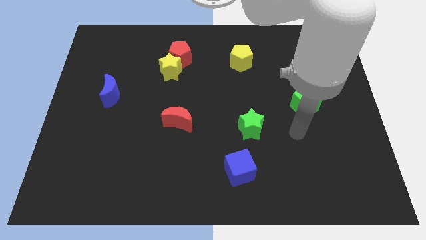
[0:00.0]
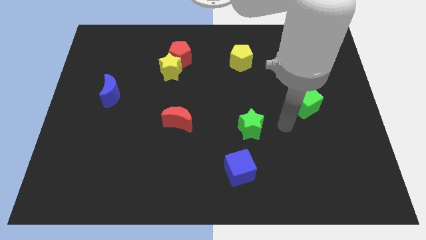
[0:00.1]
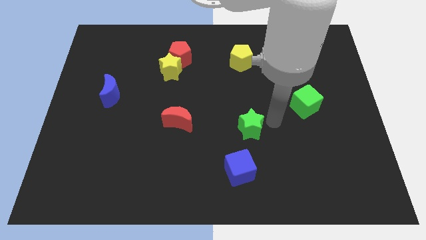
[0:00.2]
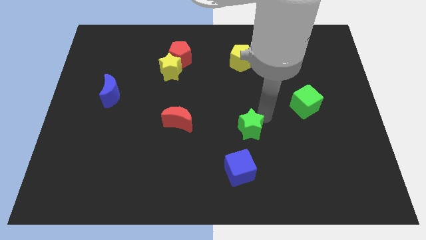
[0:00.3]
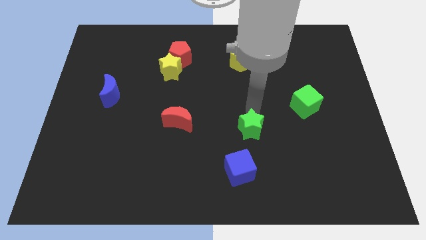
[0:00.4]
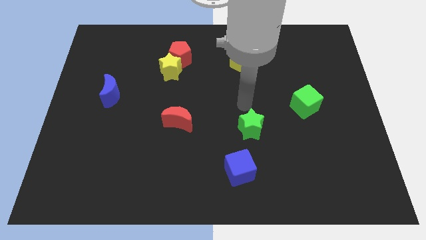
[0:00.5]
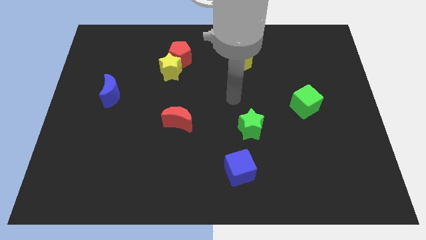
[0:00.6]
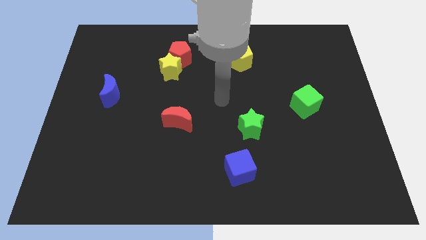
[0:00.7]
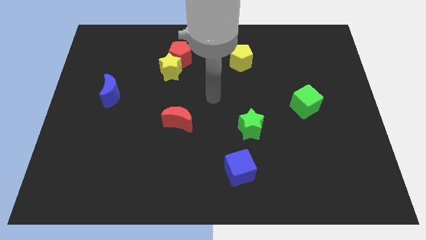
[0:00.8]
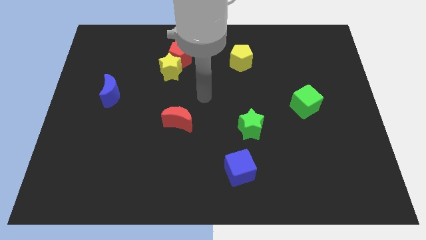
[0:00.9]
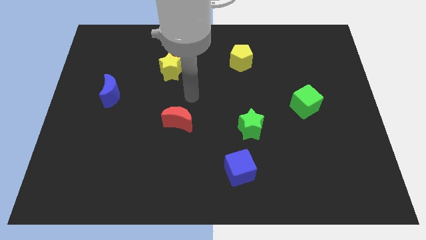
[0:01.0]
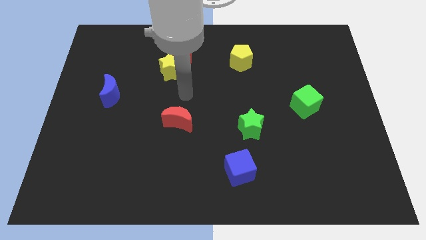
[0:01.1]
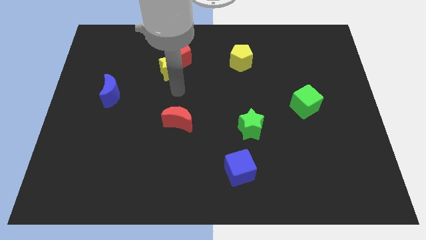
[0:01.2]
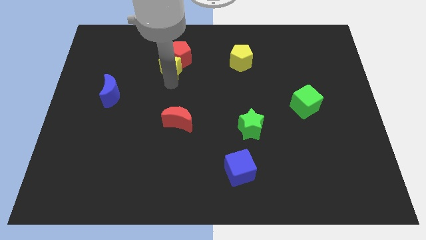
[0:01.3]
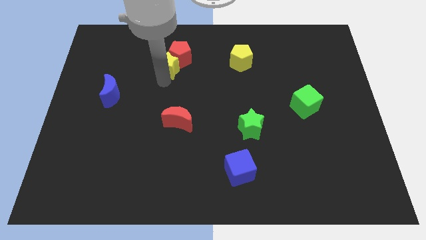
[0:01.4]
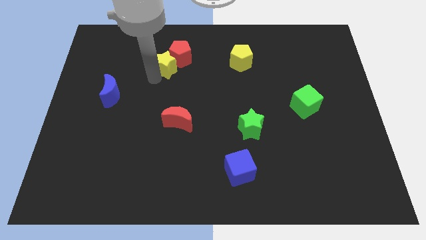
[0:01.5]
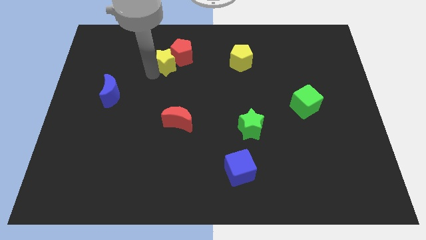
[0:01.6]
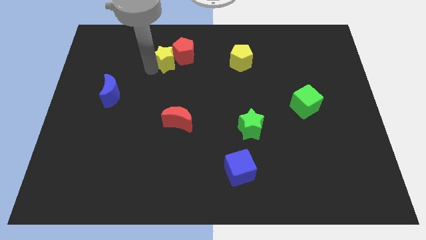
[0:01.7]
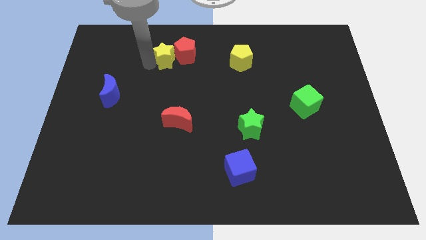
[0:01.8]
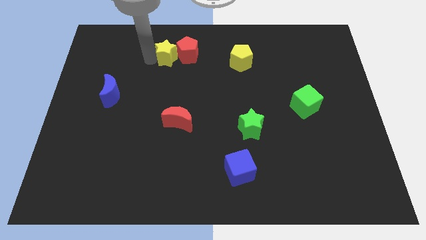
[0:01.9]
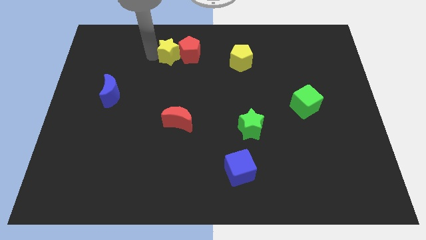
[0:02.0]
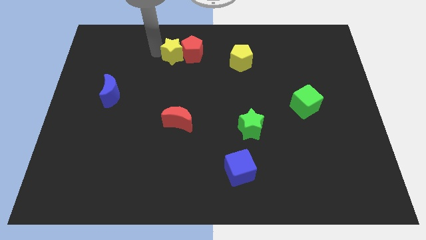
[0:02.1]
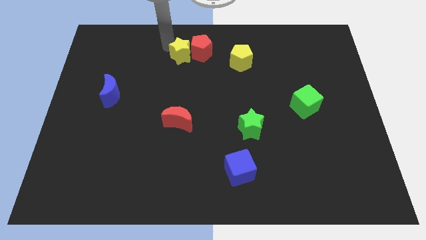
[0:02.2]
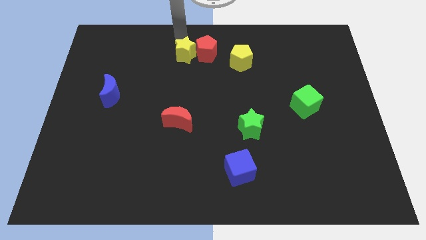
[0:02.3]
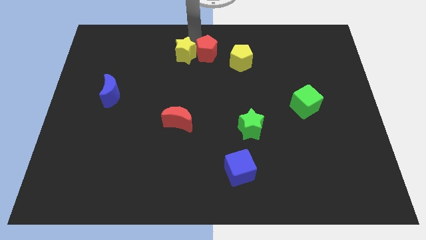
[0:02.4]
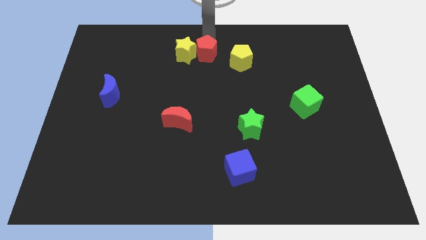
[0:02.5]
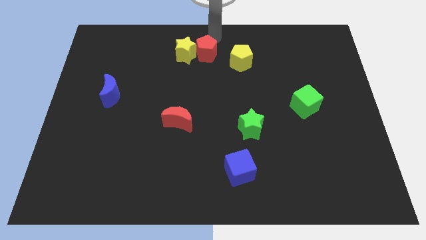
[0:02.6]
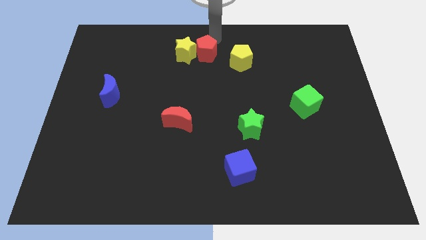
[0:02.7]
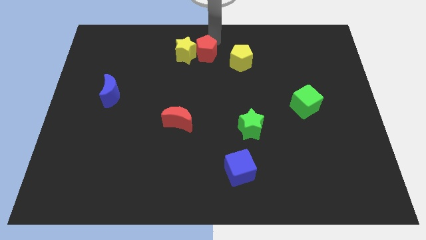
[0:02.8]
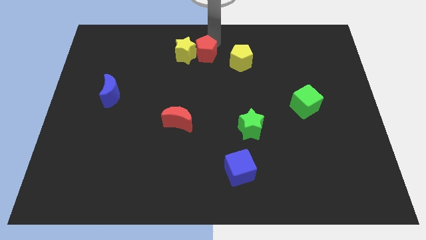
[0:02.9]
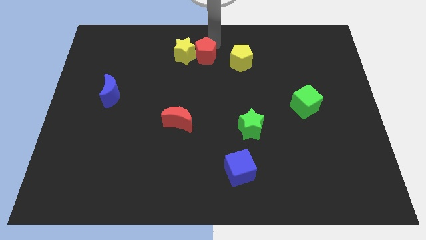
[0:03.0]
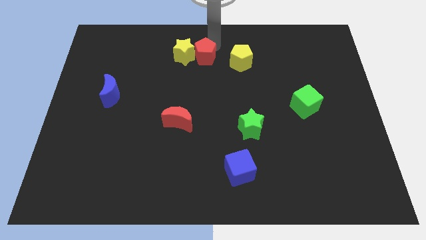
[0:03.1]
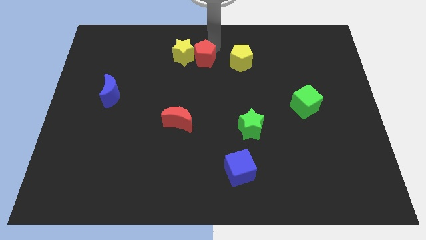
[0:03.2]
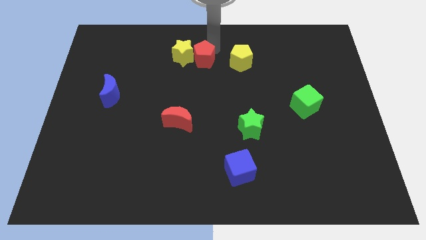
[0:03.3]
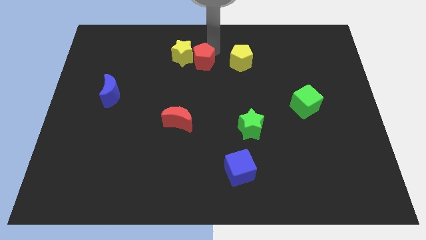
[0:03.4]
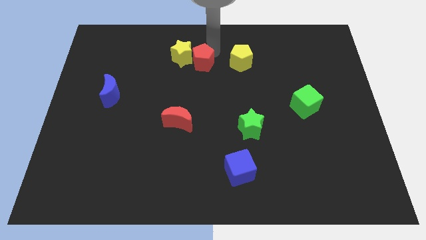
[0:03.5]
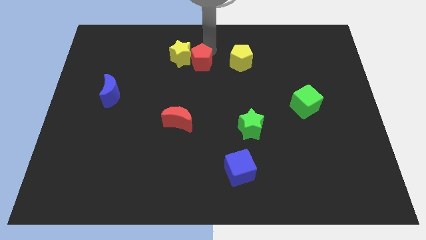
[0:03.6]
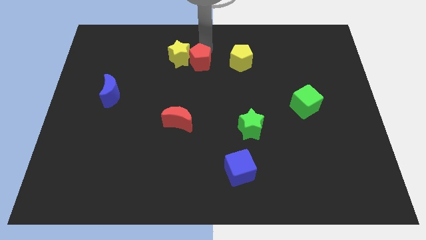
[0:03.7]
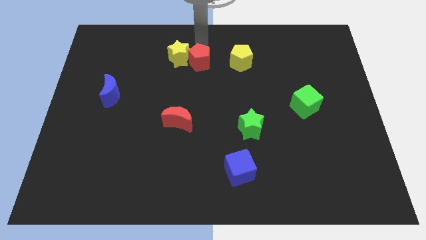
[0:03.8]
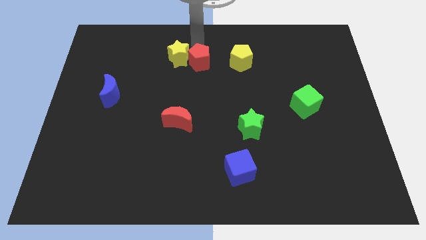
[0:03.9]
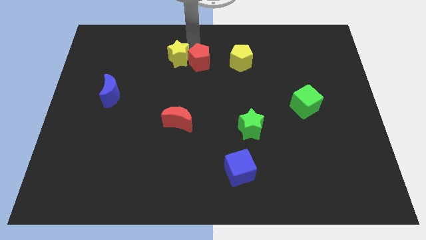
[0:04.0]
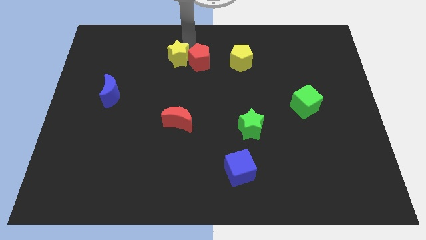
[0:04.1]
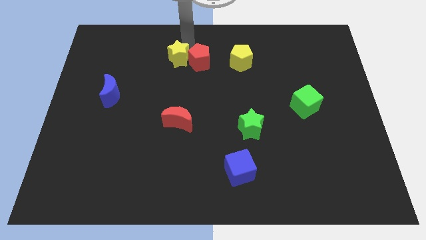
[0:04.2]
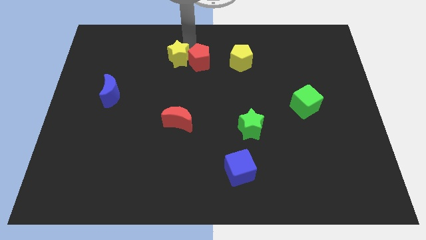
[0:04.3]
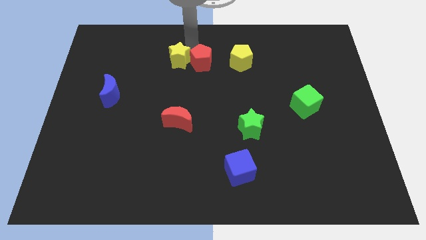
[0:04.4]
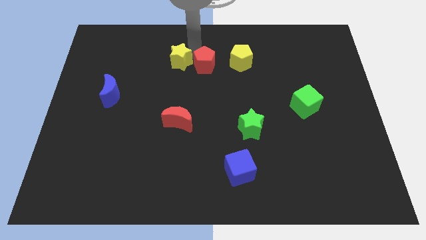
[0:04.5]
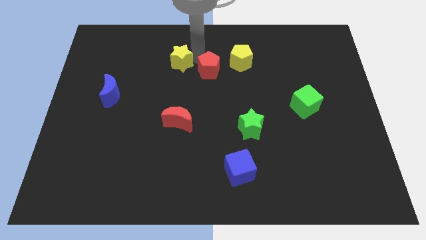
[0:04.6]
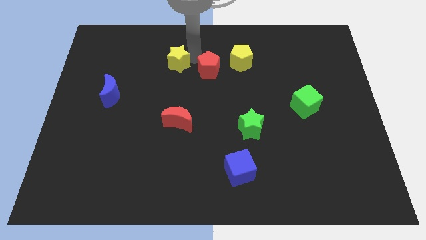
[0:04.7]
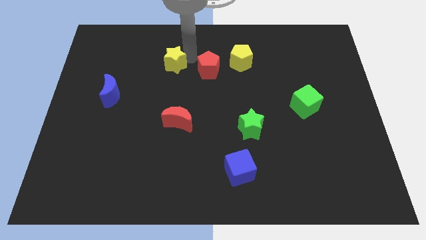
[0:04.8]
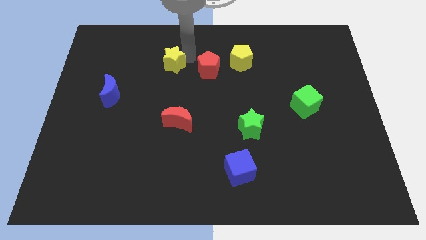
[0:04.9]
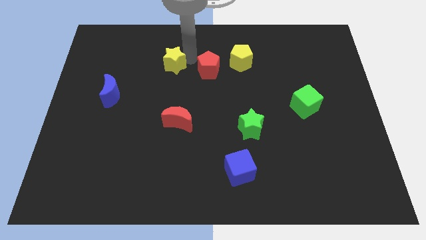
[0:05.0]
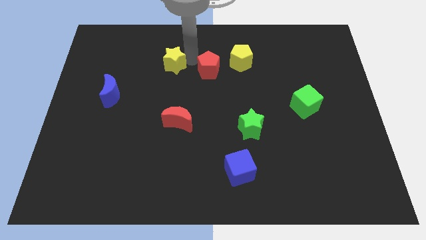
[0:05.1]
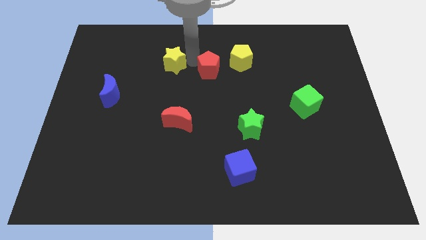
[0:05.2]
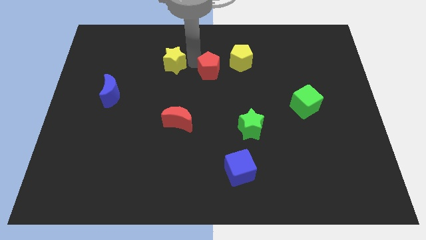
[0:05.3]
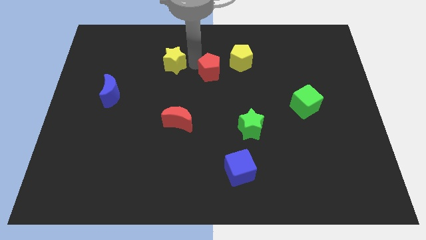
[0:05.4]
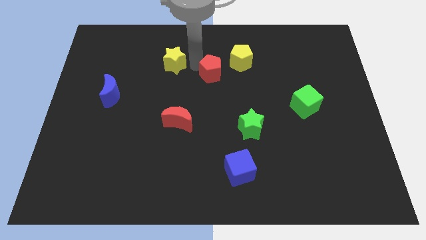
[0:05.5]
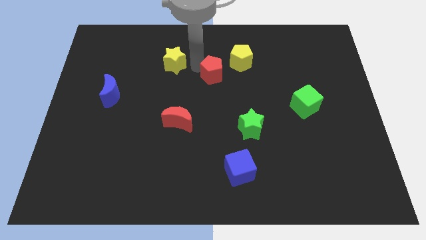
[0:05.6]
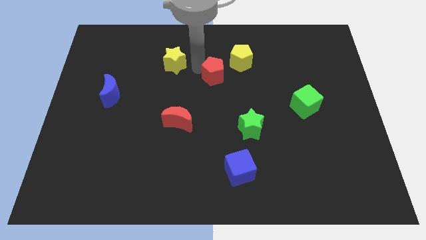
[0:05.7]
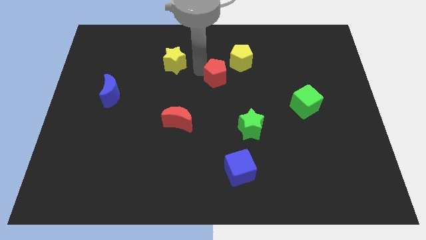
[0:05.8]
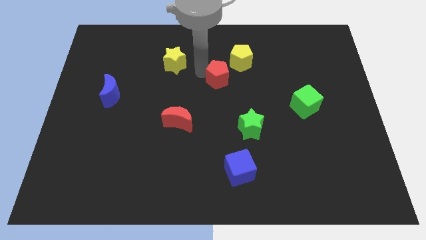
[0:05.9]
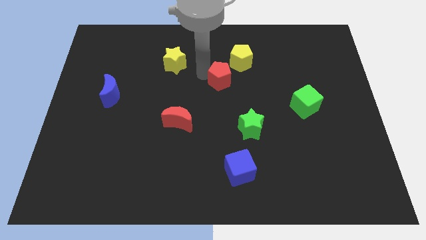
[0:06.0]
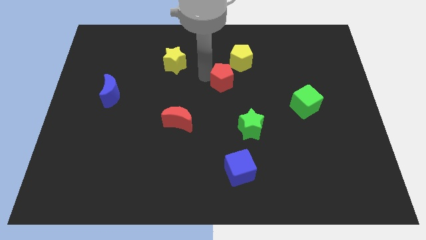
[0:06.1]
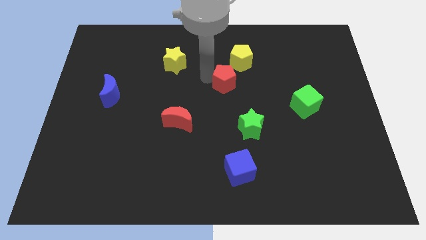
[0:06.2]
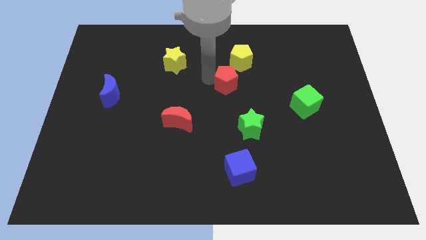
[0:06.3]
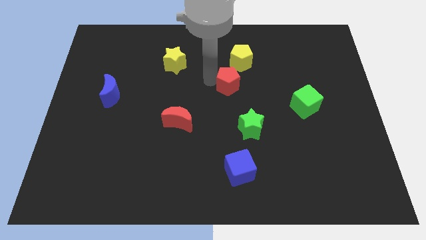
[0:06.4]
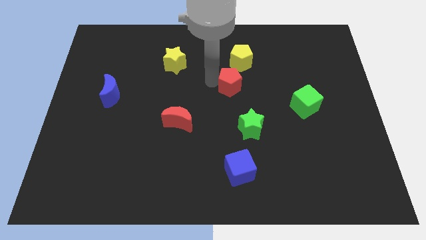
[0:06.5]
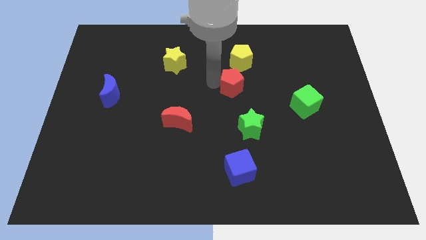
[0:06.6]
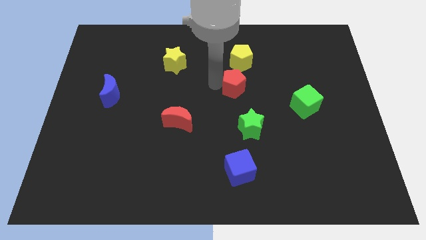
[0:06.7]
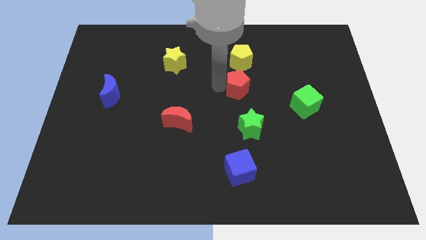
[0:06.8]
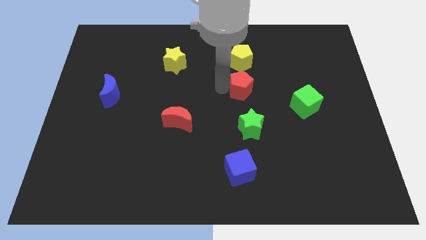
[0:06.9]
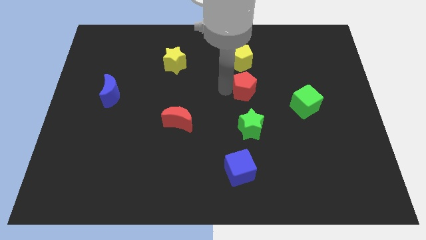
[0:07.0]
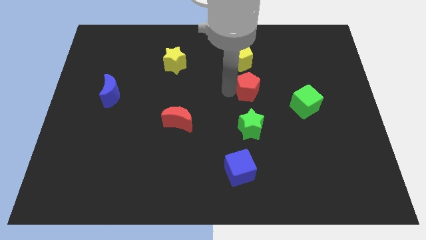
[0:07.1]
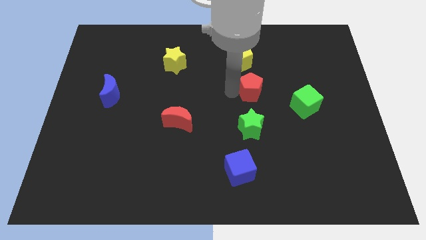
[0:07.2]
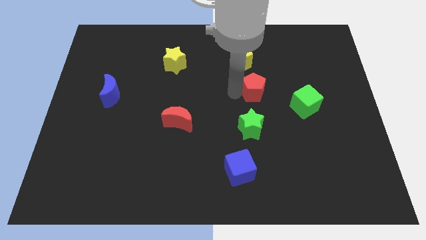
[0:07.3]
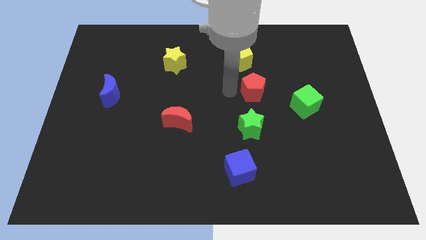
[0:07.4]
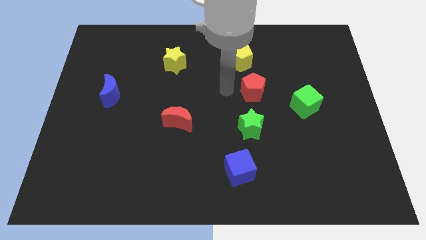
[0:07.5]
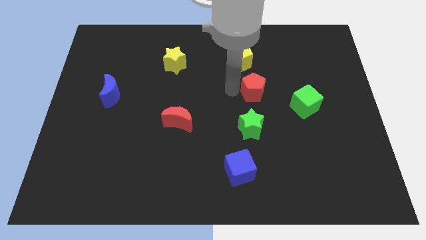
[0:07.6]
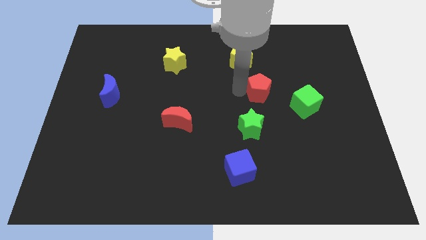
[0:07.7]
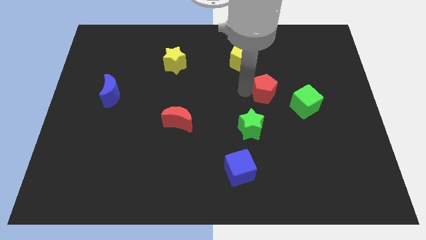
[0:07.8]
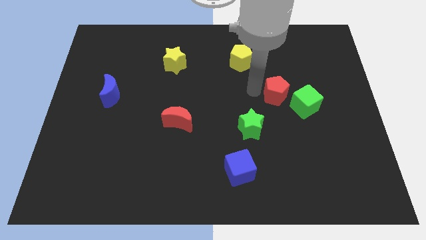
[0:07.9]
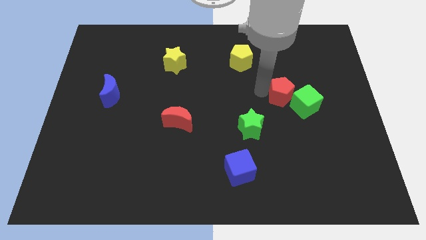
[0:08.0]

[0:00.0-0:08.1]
put the red pentagon next to the green cube
